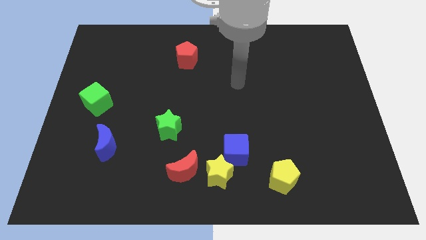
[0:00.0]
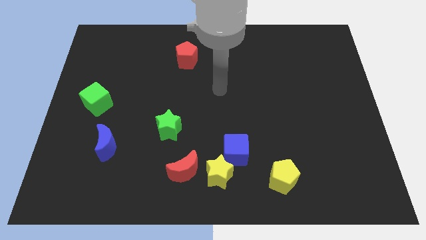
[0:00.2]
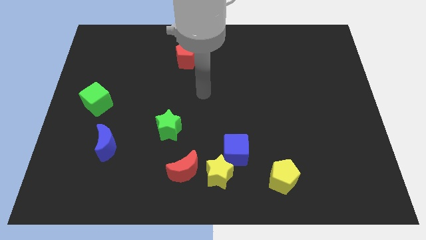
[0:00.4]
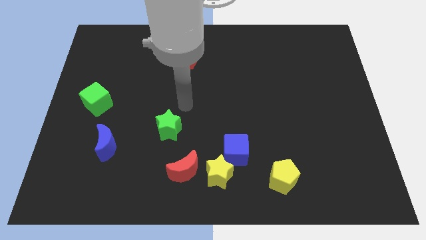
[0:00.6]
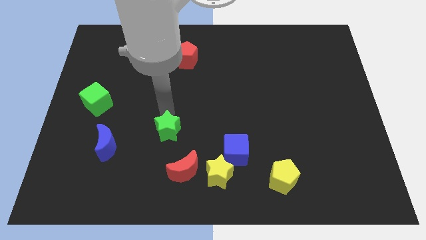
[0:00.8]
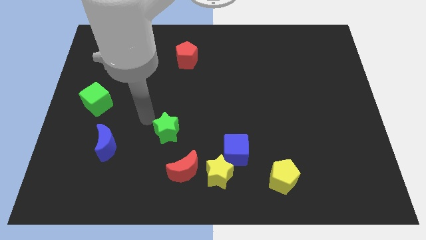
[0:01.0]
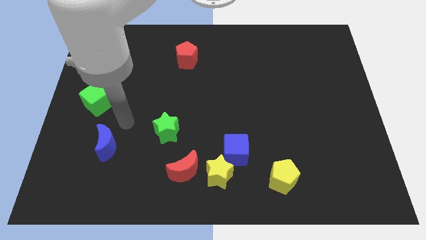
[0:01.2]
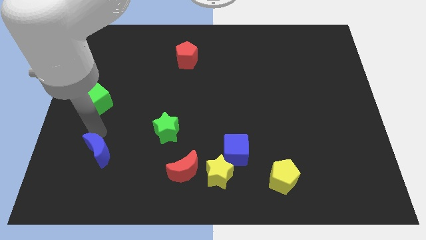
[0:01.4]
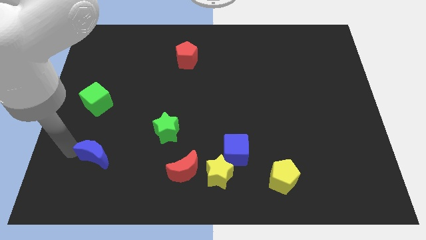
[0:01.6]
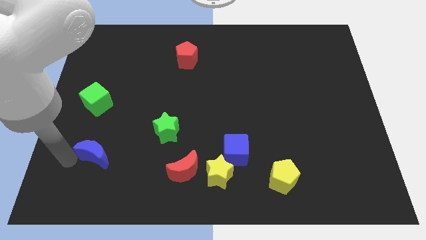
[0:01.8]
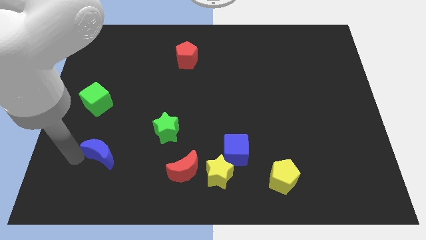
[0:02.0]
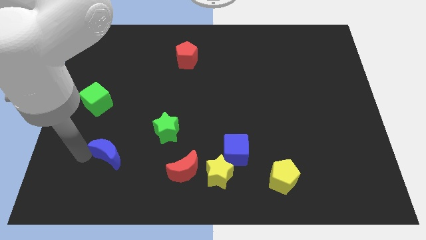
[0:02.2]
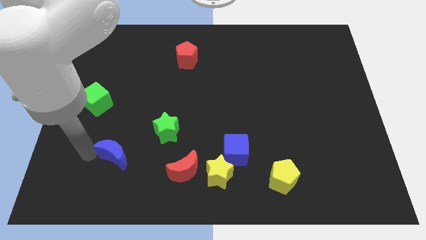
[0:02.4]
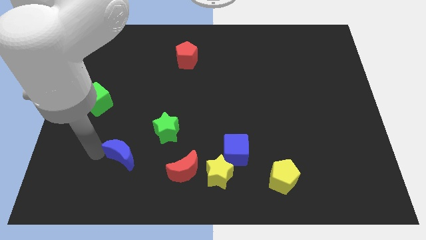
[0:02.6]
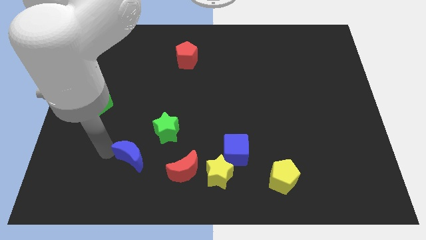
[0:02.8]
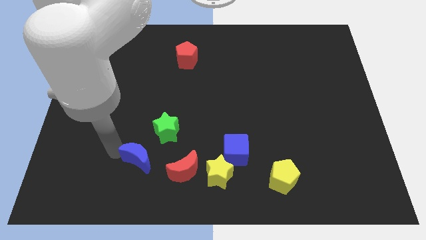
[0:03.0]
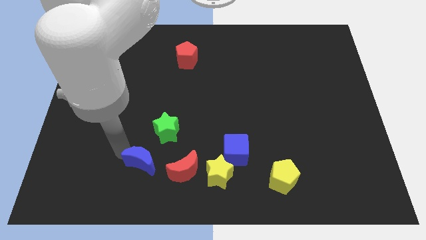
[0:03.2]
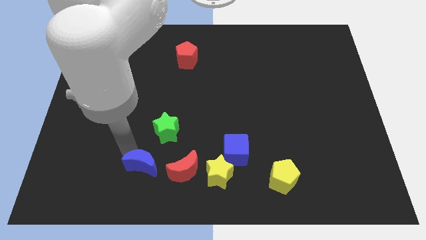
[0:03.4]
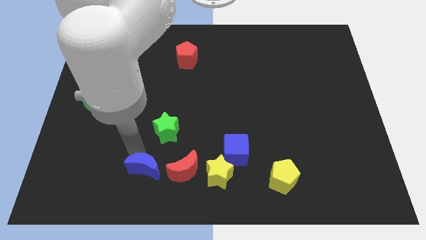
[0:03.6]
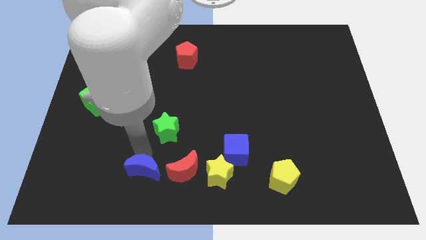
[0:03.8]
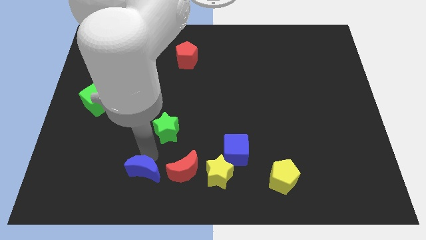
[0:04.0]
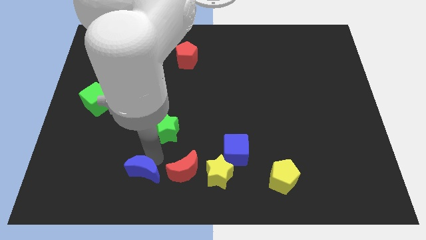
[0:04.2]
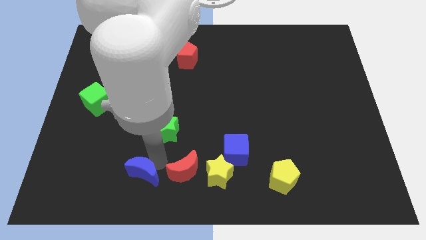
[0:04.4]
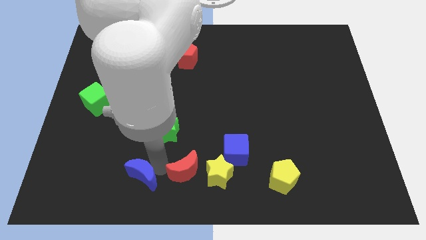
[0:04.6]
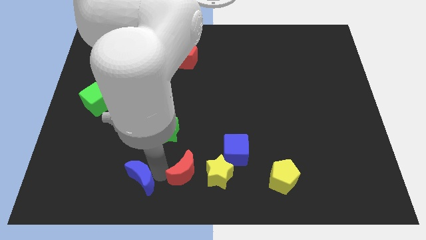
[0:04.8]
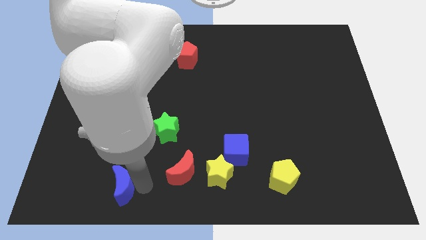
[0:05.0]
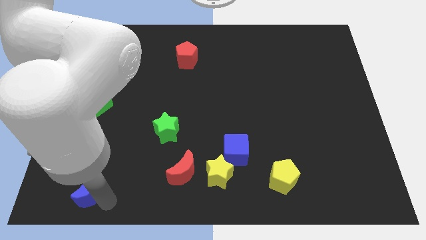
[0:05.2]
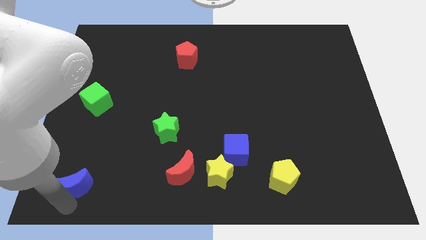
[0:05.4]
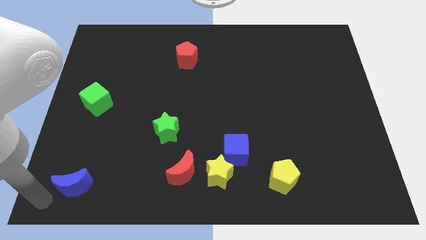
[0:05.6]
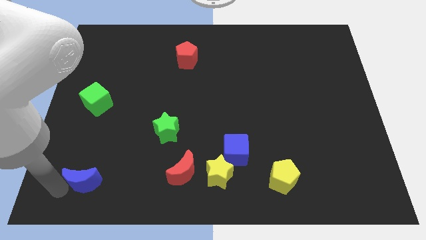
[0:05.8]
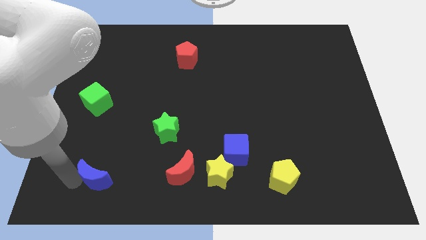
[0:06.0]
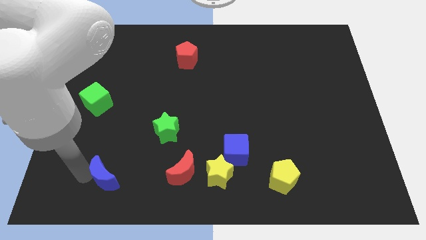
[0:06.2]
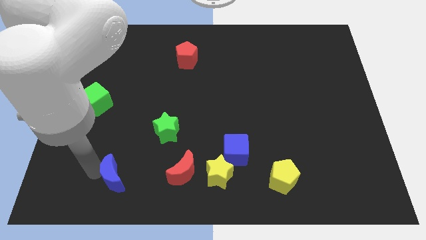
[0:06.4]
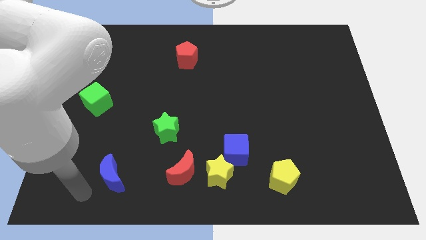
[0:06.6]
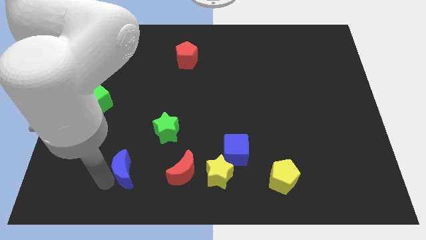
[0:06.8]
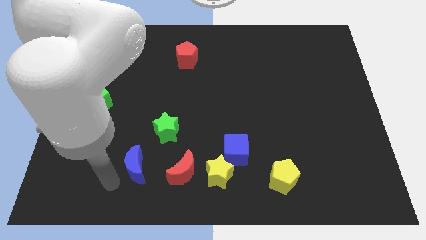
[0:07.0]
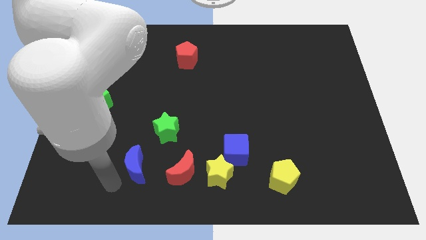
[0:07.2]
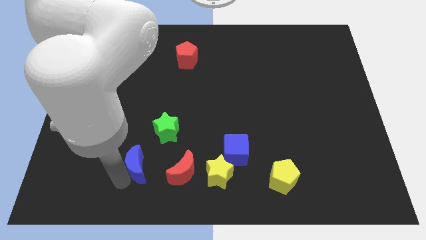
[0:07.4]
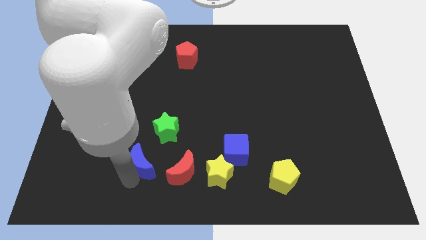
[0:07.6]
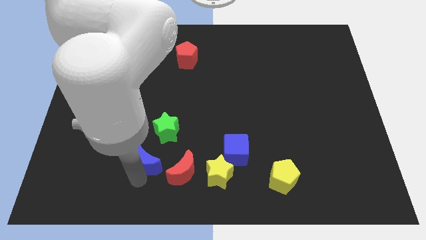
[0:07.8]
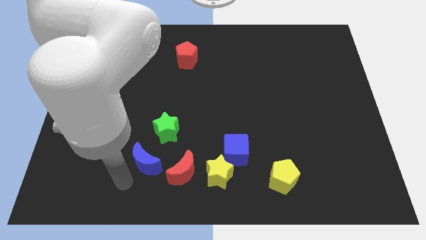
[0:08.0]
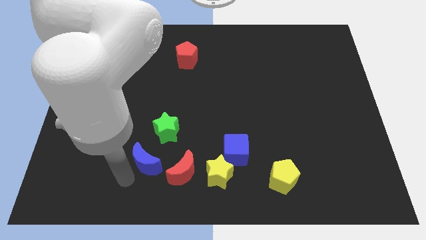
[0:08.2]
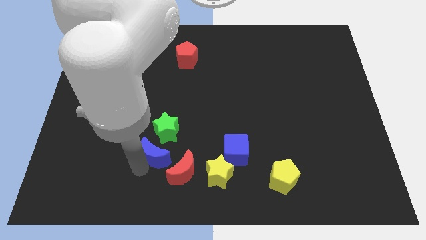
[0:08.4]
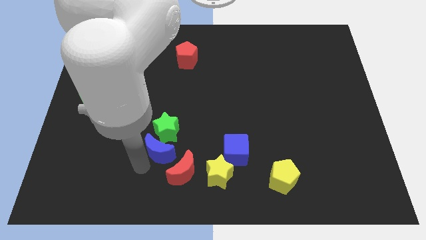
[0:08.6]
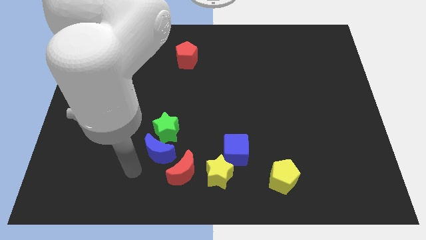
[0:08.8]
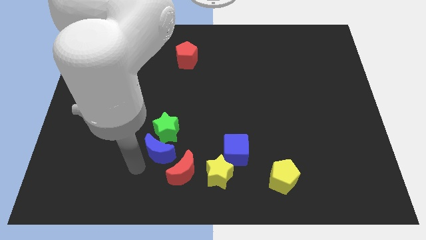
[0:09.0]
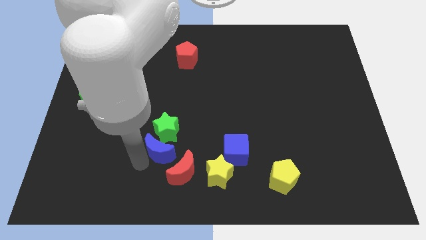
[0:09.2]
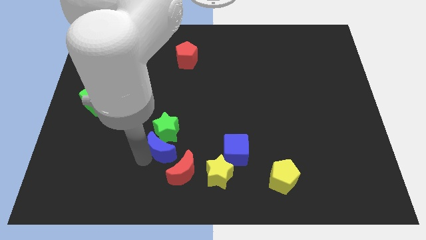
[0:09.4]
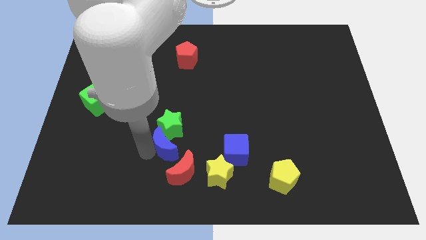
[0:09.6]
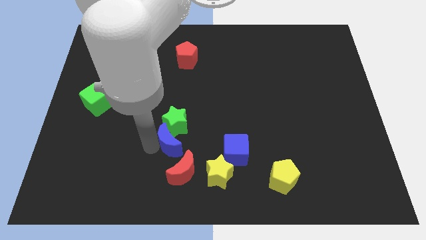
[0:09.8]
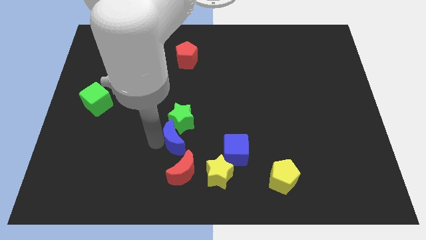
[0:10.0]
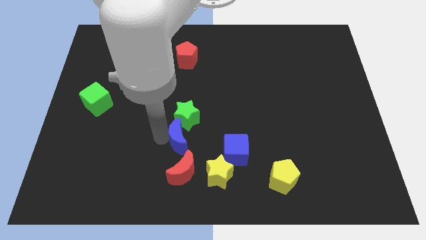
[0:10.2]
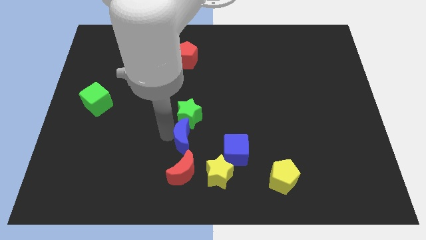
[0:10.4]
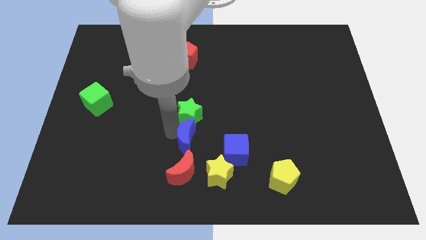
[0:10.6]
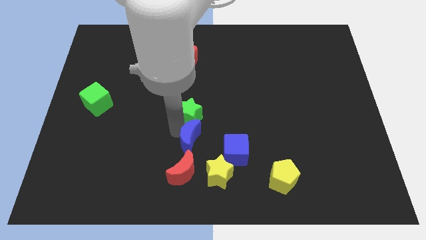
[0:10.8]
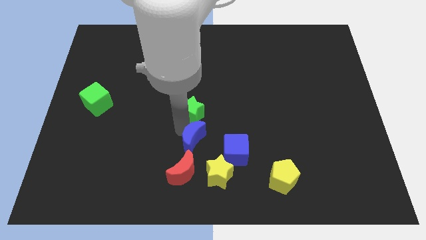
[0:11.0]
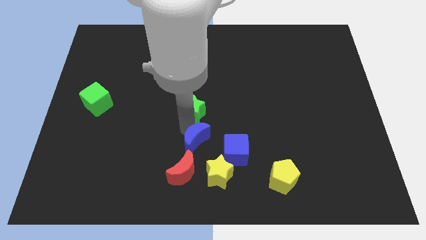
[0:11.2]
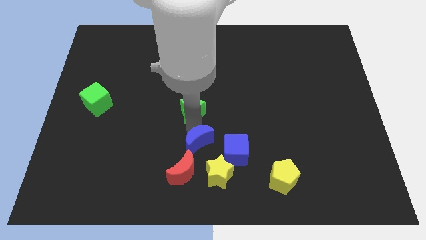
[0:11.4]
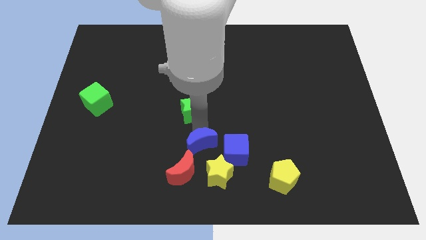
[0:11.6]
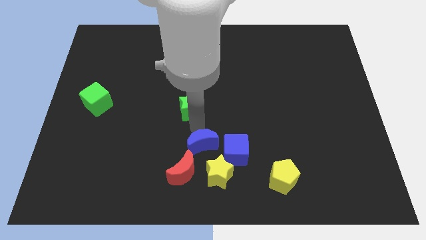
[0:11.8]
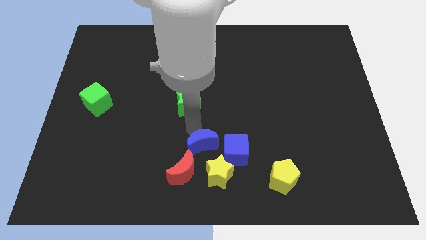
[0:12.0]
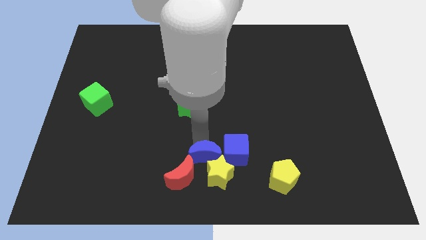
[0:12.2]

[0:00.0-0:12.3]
push the blue moon close to the yellow star

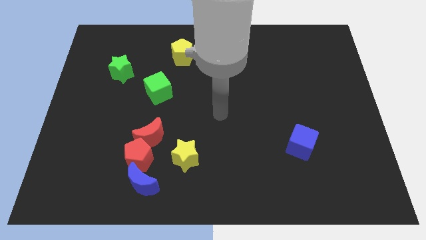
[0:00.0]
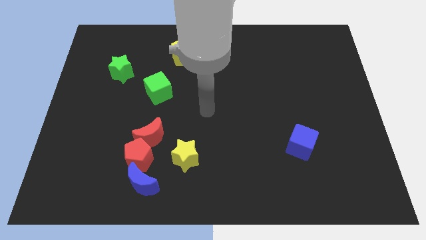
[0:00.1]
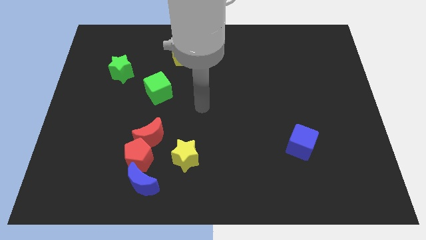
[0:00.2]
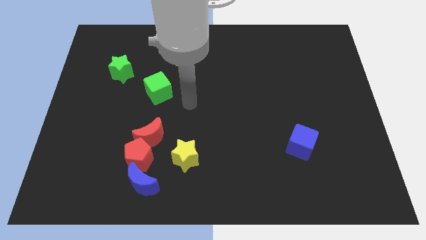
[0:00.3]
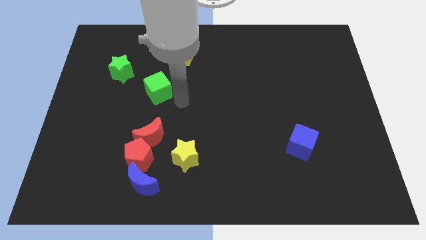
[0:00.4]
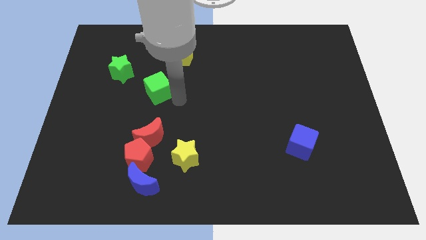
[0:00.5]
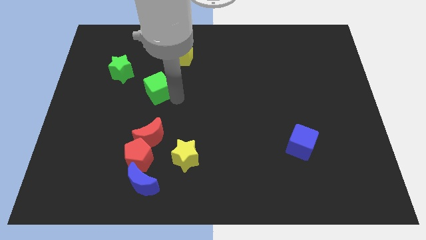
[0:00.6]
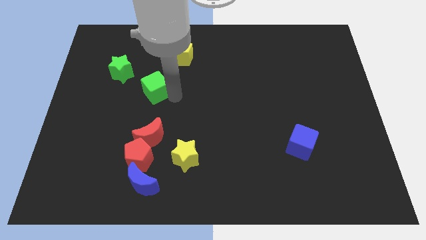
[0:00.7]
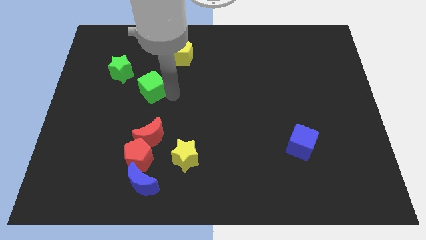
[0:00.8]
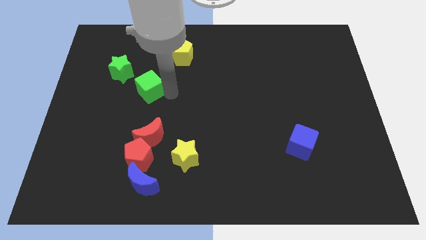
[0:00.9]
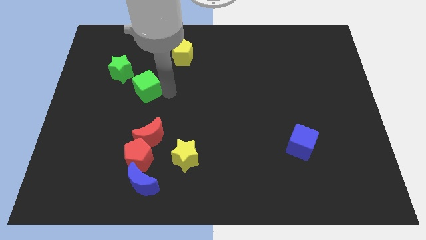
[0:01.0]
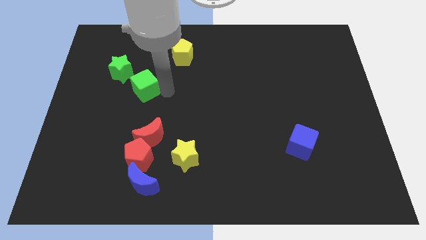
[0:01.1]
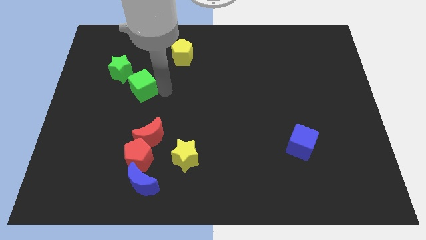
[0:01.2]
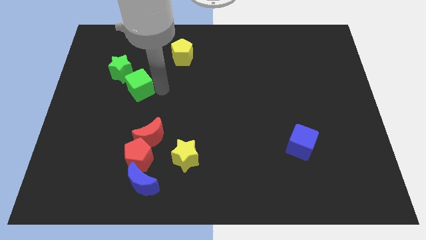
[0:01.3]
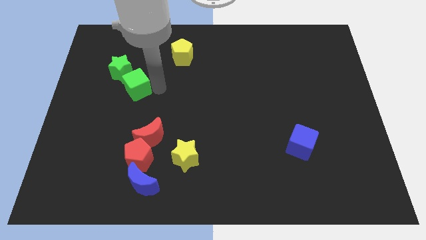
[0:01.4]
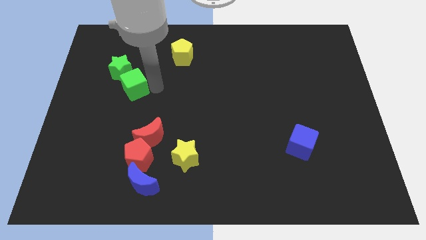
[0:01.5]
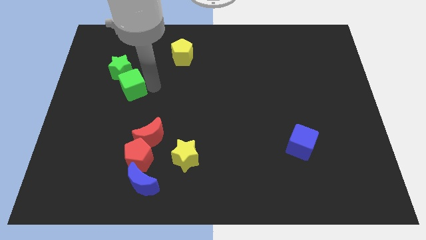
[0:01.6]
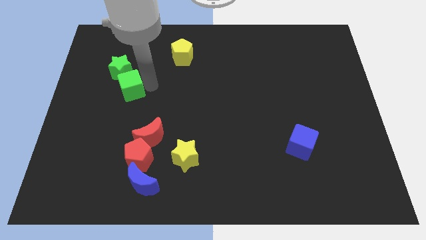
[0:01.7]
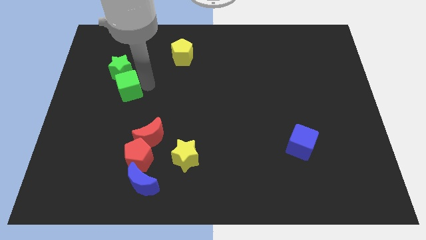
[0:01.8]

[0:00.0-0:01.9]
move the green cube next to the green star
